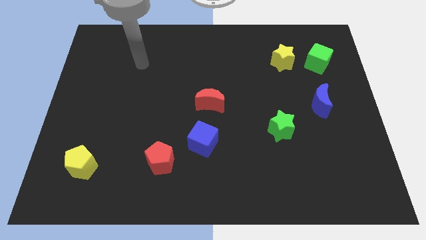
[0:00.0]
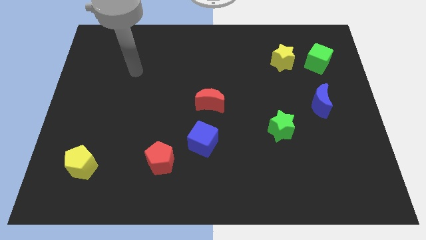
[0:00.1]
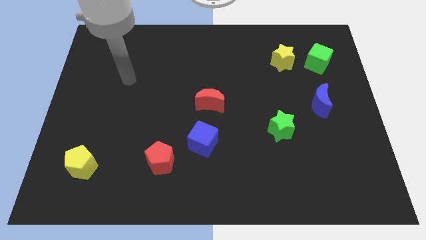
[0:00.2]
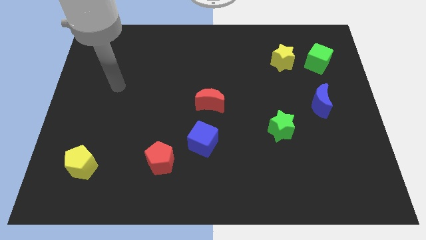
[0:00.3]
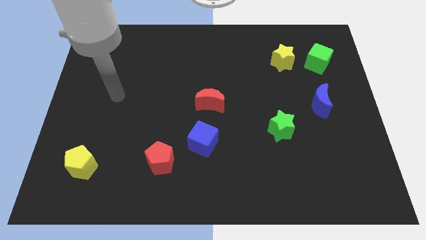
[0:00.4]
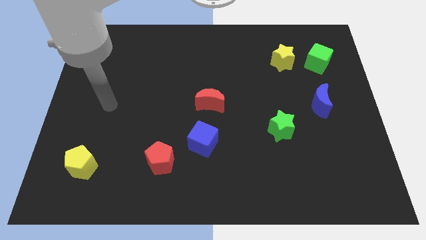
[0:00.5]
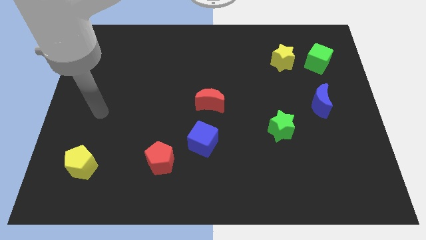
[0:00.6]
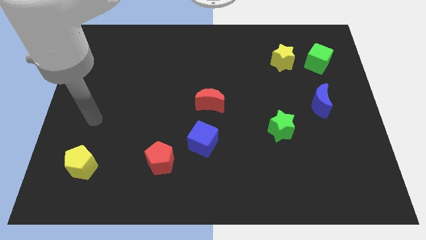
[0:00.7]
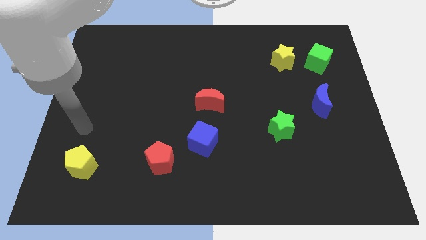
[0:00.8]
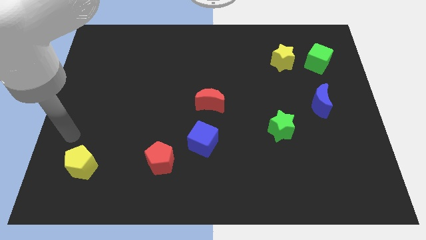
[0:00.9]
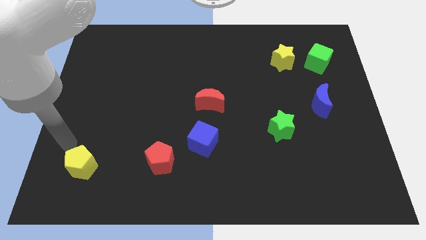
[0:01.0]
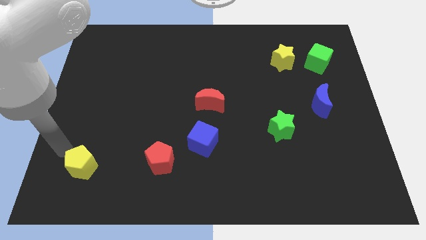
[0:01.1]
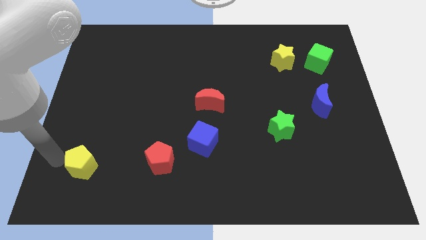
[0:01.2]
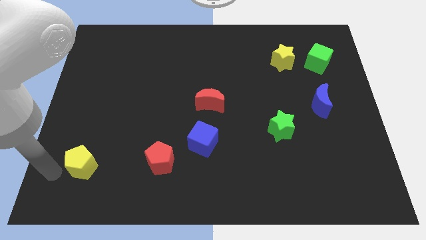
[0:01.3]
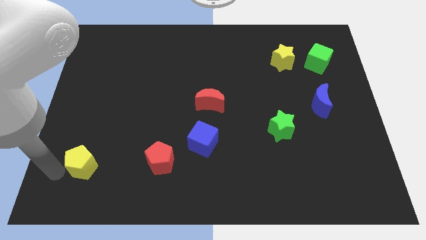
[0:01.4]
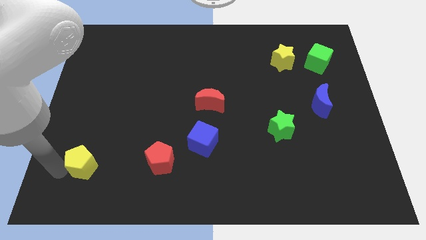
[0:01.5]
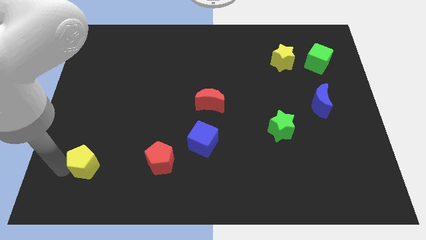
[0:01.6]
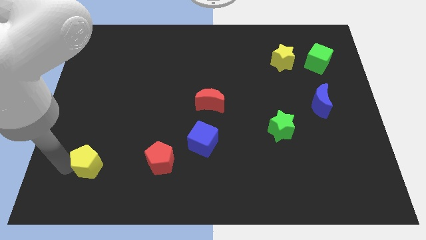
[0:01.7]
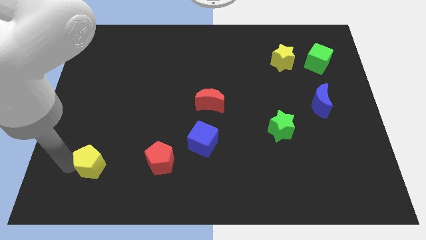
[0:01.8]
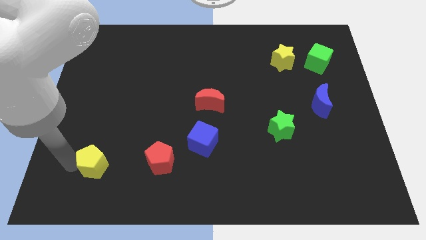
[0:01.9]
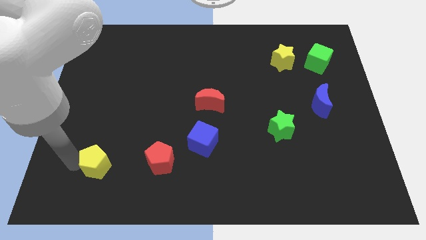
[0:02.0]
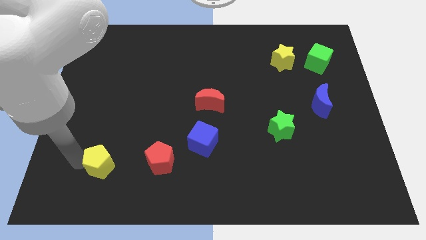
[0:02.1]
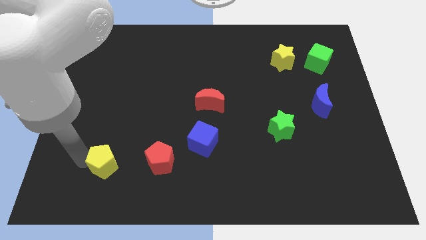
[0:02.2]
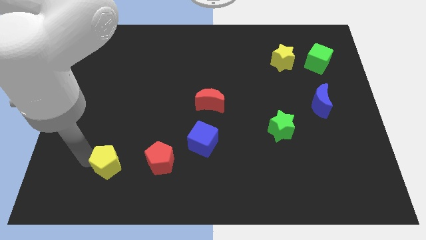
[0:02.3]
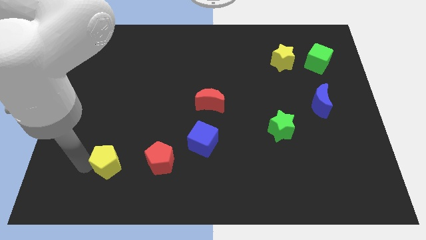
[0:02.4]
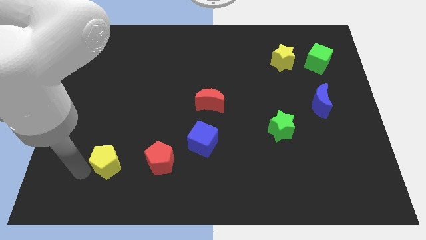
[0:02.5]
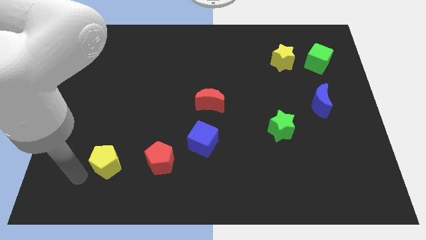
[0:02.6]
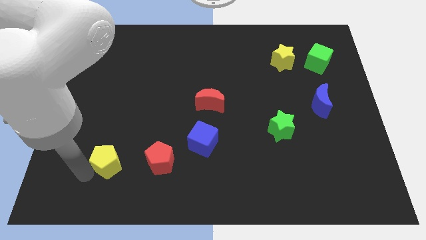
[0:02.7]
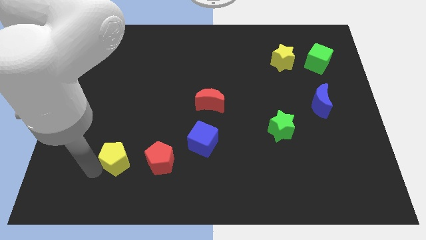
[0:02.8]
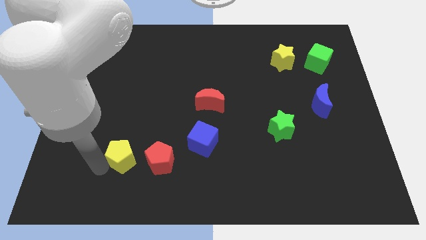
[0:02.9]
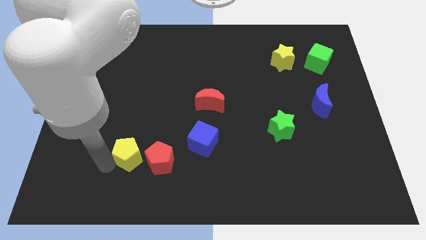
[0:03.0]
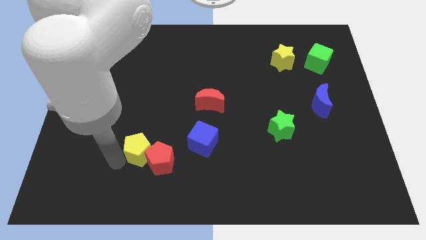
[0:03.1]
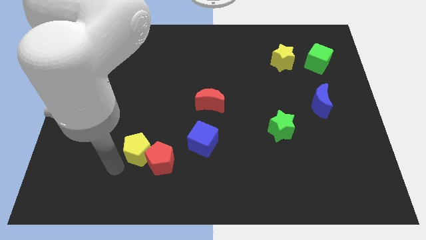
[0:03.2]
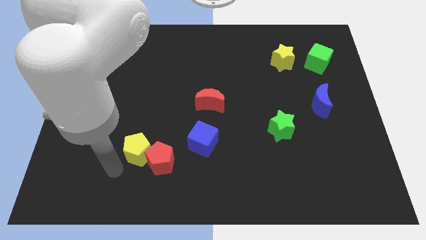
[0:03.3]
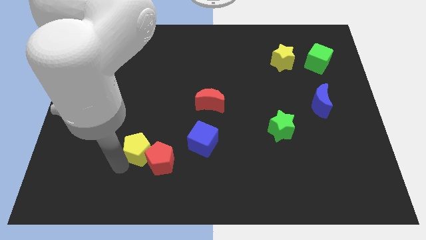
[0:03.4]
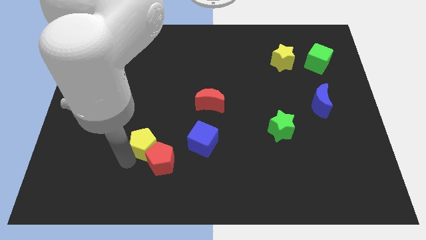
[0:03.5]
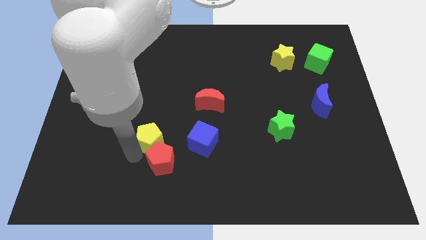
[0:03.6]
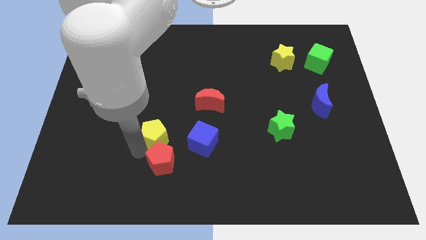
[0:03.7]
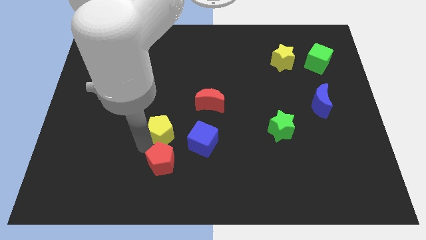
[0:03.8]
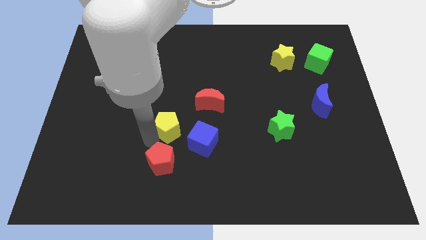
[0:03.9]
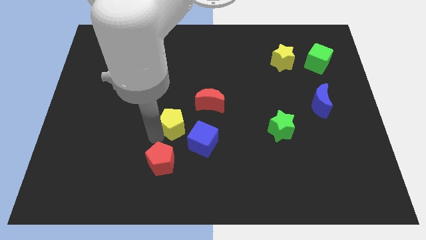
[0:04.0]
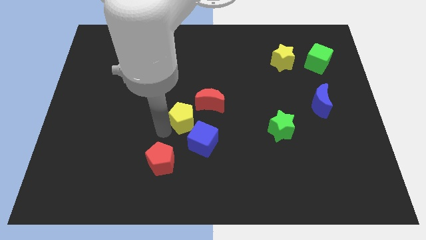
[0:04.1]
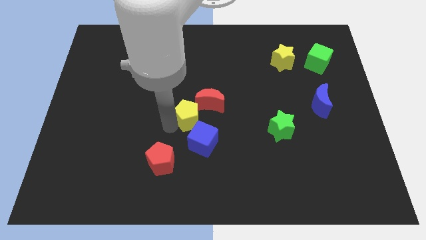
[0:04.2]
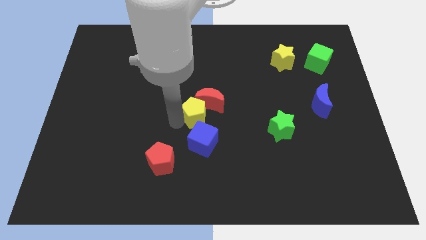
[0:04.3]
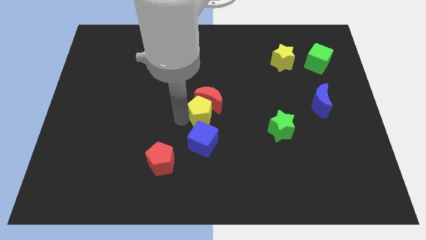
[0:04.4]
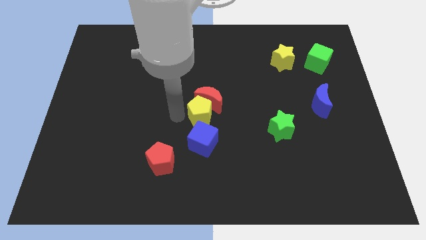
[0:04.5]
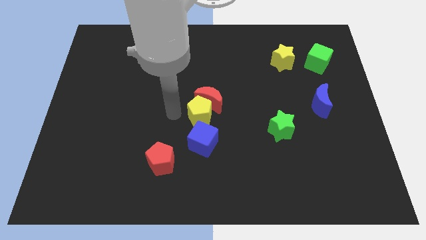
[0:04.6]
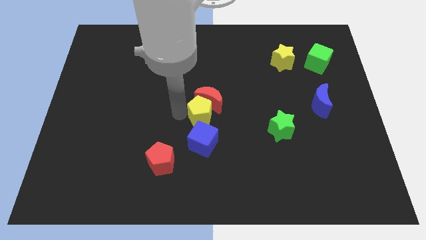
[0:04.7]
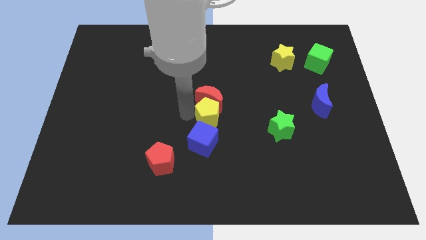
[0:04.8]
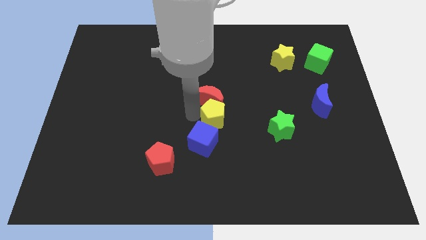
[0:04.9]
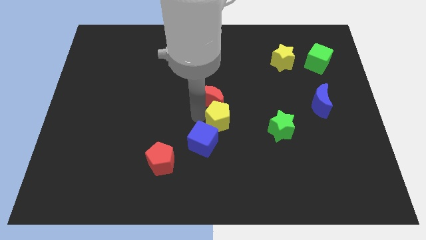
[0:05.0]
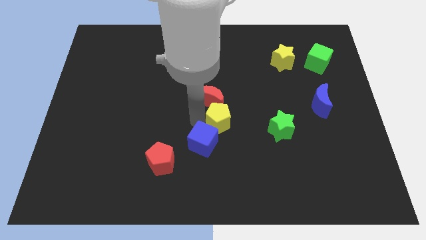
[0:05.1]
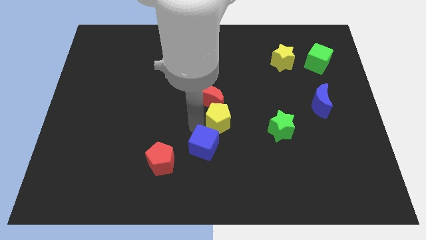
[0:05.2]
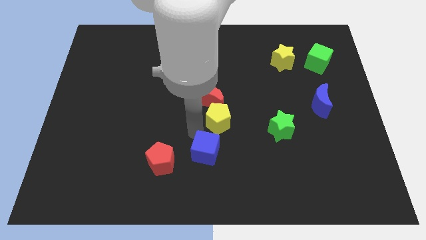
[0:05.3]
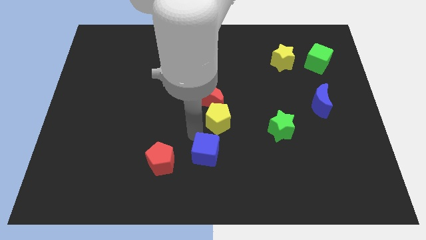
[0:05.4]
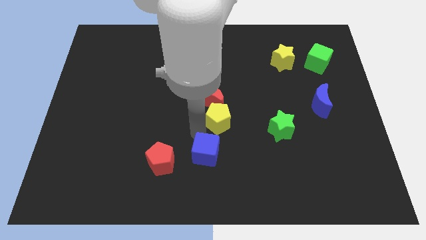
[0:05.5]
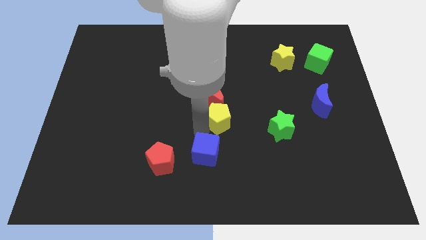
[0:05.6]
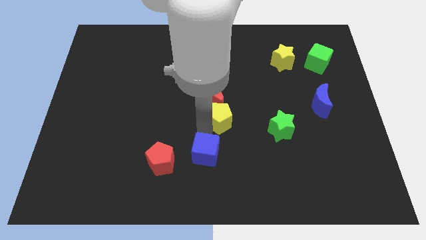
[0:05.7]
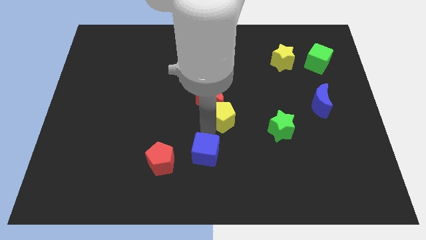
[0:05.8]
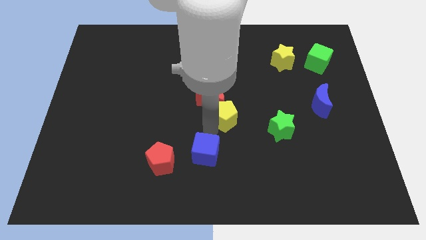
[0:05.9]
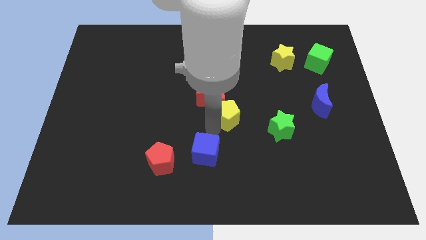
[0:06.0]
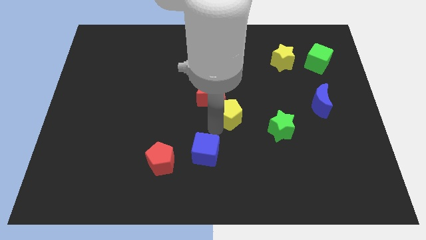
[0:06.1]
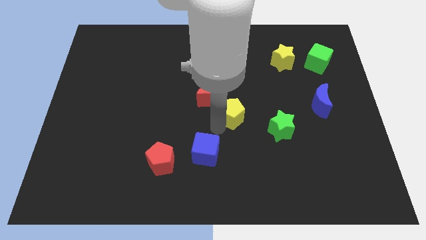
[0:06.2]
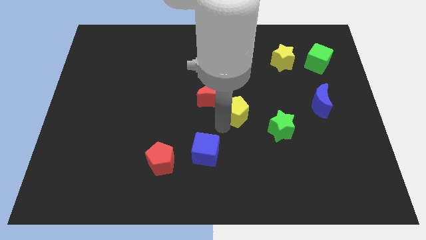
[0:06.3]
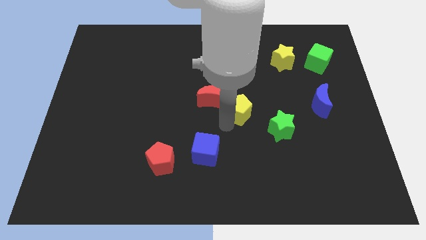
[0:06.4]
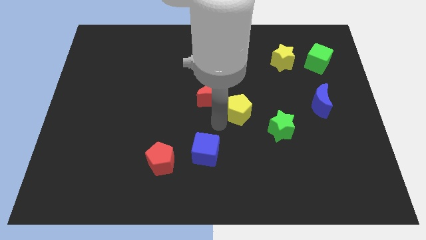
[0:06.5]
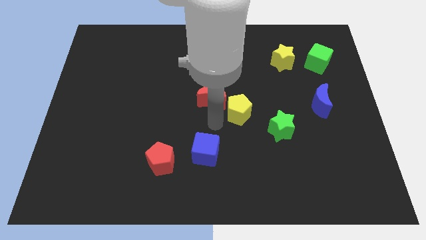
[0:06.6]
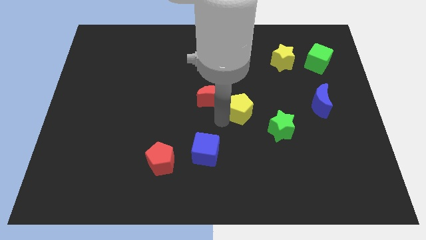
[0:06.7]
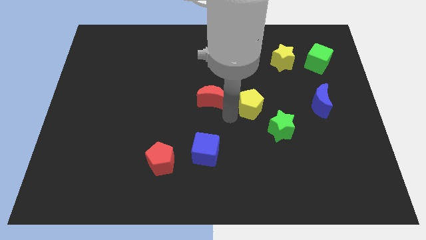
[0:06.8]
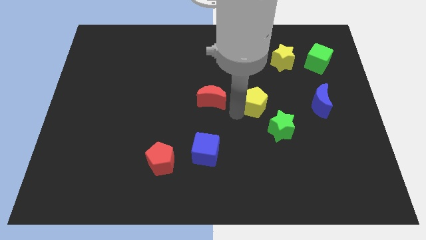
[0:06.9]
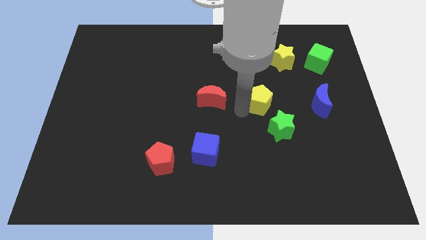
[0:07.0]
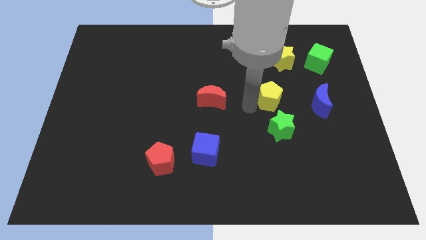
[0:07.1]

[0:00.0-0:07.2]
slide the yellow pentagon to the bottom side of the yellow star

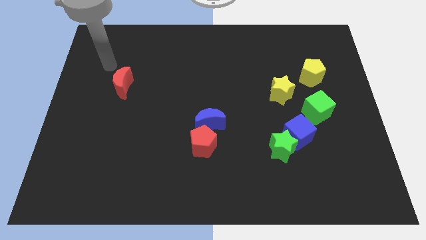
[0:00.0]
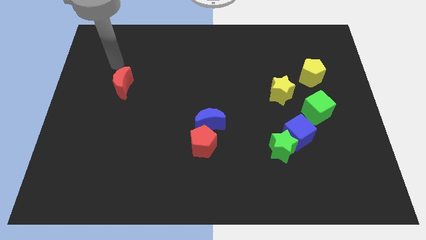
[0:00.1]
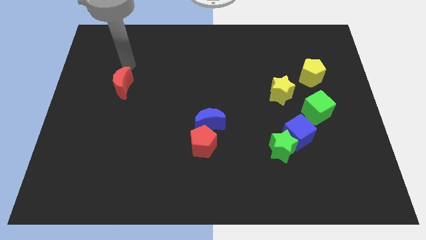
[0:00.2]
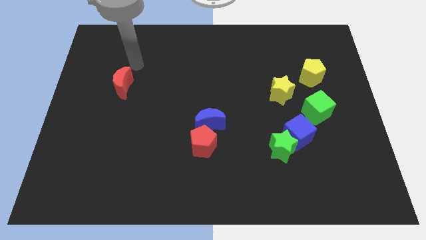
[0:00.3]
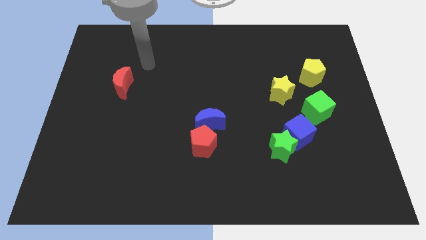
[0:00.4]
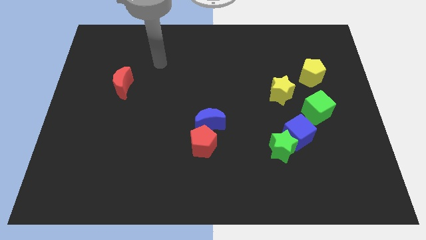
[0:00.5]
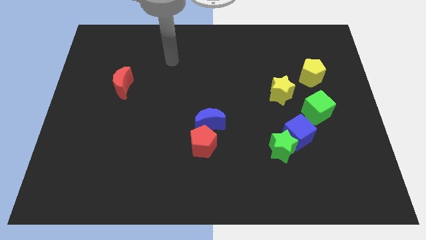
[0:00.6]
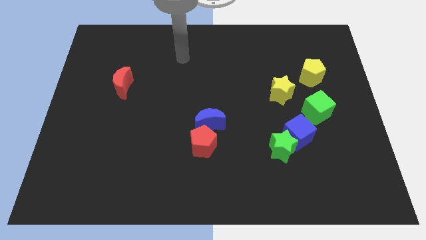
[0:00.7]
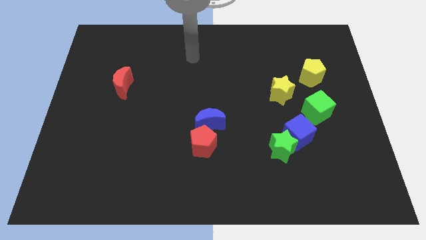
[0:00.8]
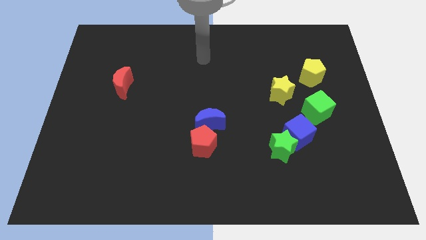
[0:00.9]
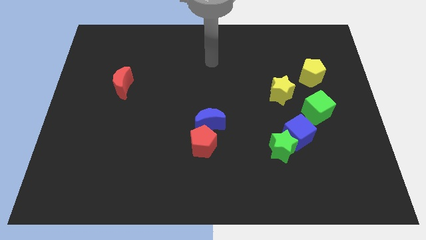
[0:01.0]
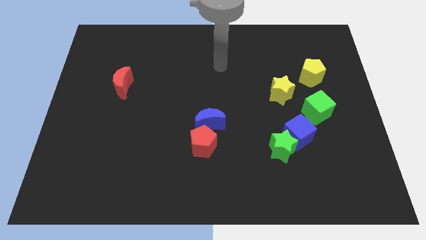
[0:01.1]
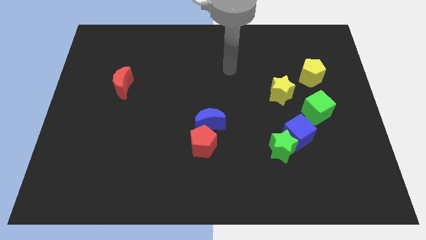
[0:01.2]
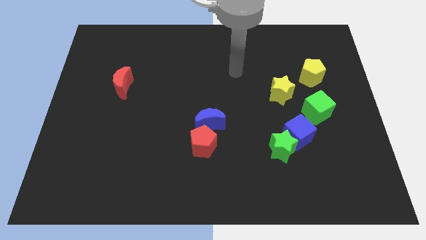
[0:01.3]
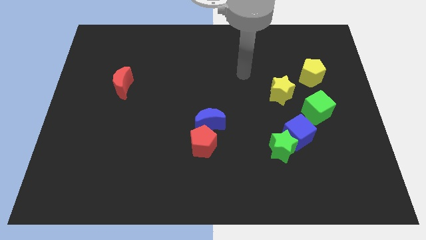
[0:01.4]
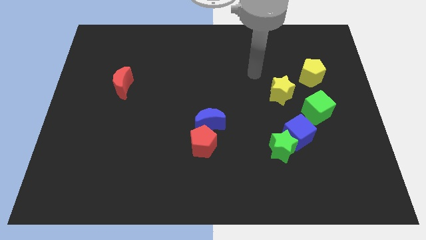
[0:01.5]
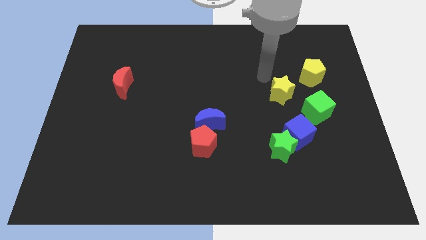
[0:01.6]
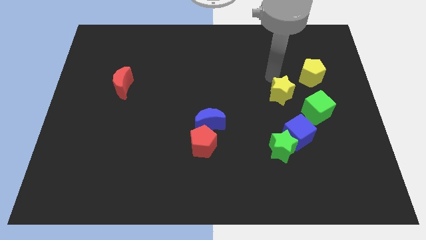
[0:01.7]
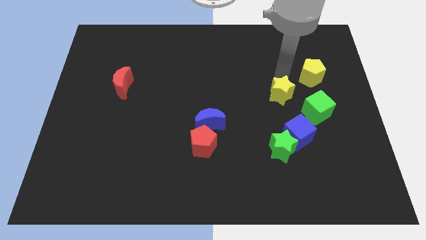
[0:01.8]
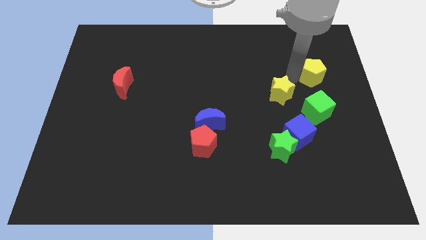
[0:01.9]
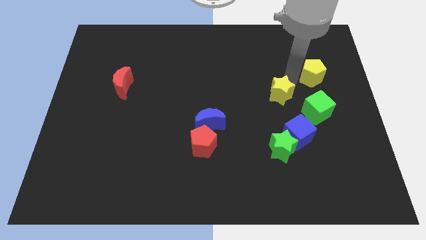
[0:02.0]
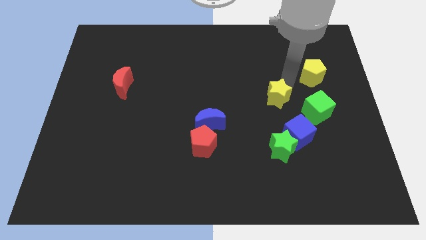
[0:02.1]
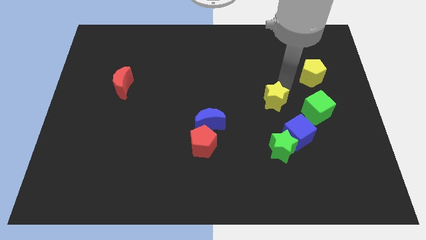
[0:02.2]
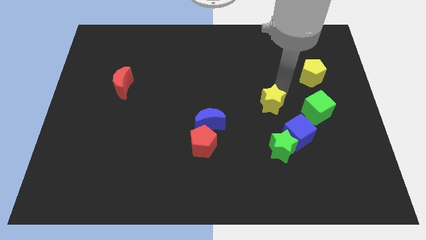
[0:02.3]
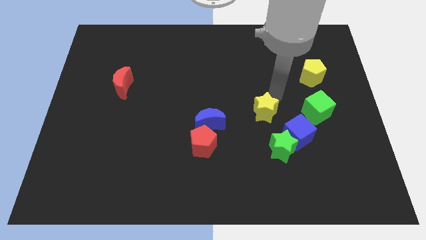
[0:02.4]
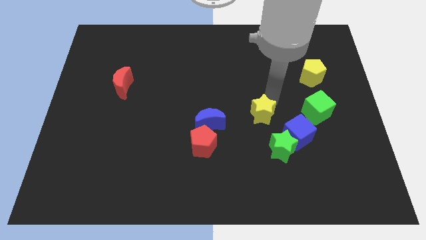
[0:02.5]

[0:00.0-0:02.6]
slide the yellow star to the top left side of the green star
